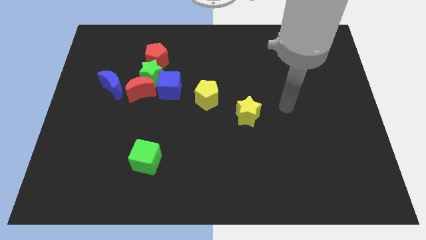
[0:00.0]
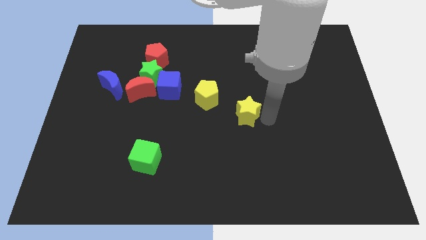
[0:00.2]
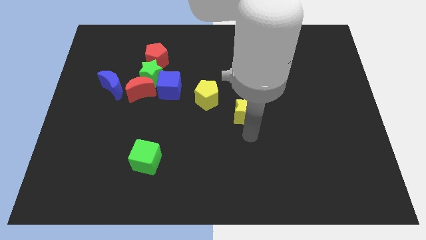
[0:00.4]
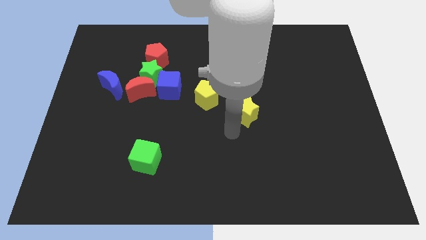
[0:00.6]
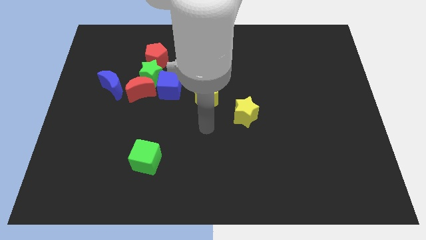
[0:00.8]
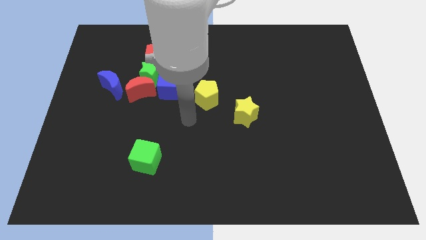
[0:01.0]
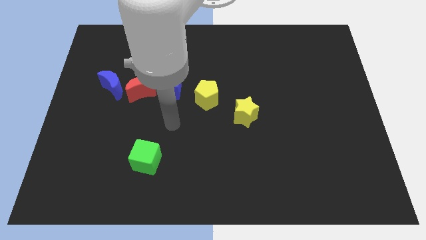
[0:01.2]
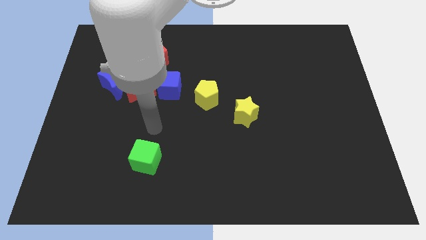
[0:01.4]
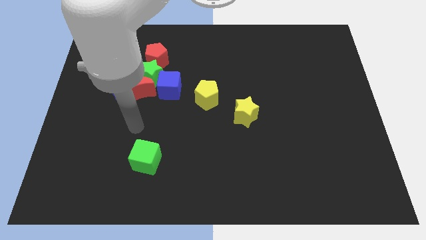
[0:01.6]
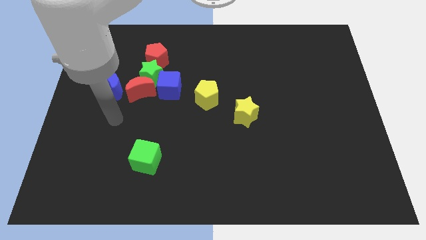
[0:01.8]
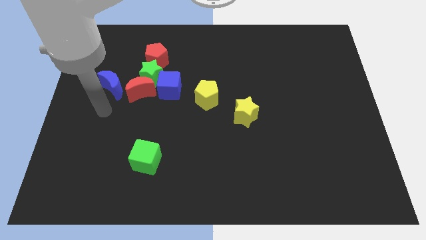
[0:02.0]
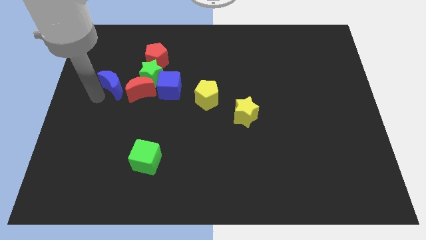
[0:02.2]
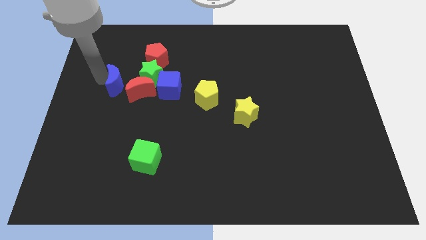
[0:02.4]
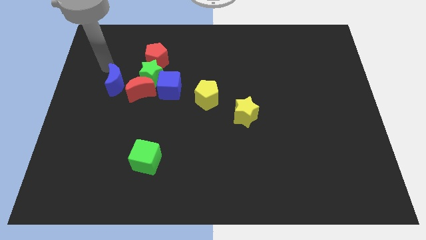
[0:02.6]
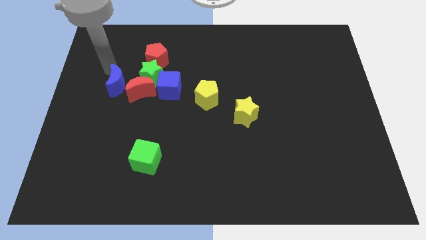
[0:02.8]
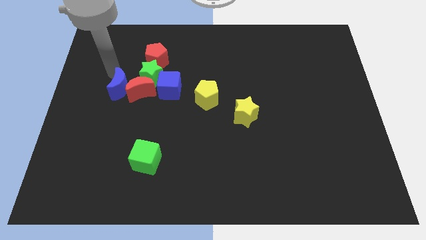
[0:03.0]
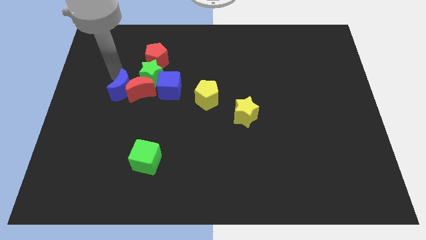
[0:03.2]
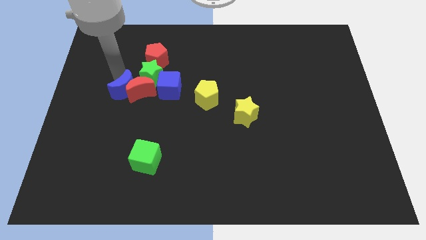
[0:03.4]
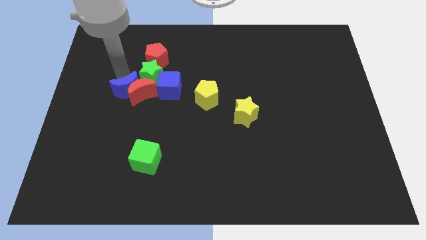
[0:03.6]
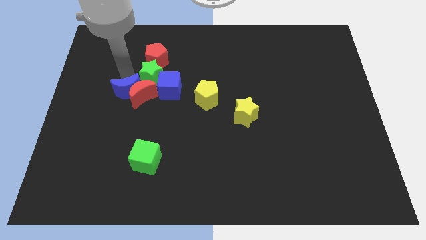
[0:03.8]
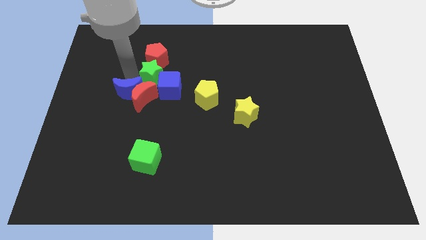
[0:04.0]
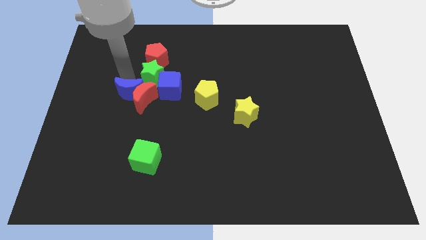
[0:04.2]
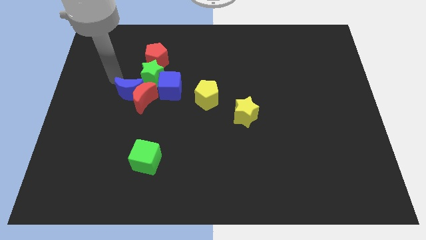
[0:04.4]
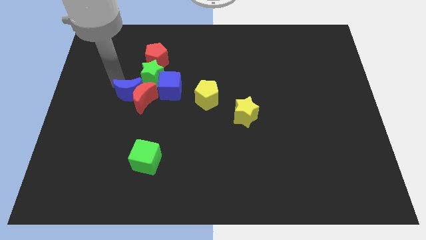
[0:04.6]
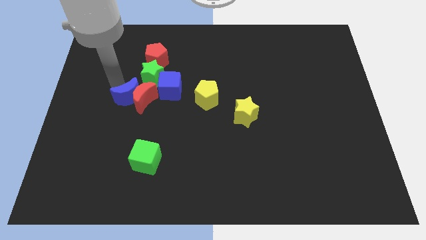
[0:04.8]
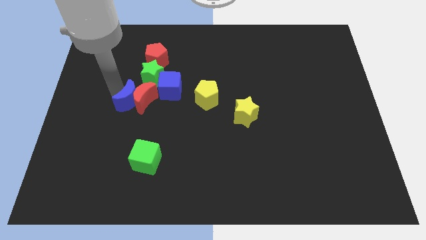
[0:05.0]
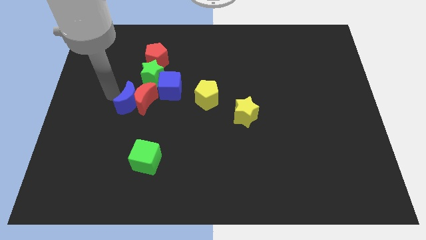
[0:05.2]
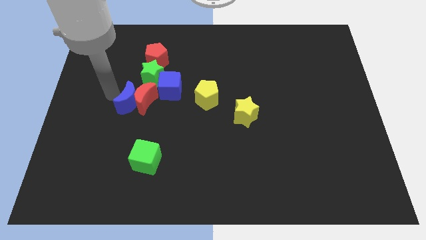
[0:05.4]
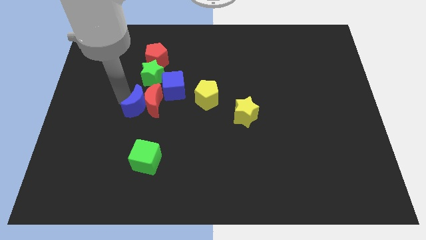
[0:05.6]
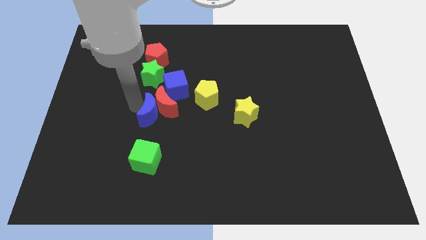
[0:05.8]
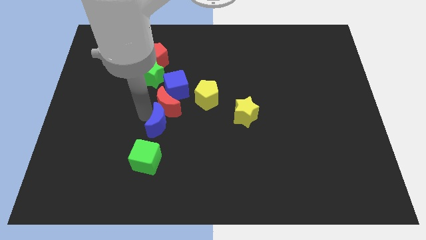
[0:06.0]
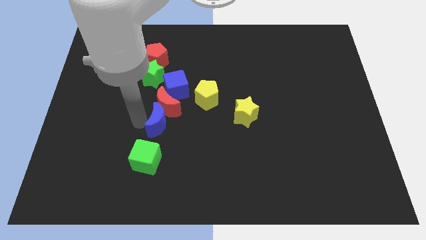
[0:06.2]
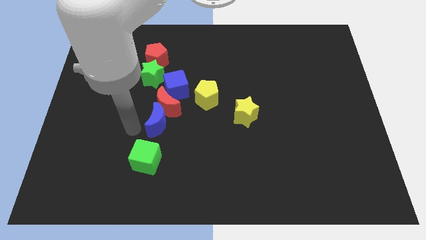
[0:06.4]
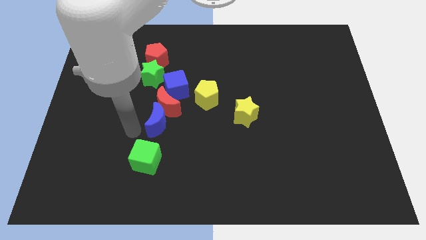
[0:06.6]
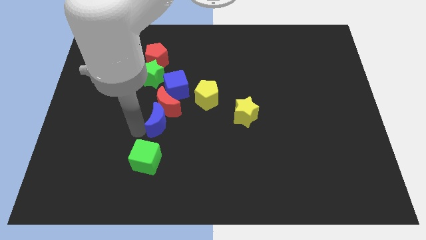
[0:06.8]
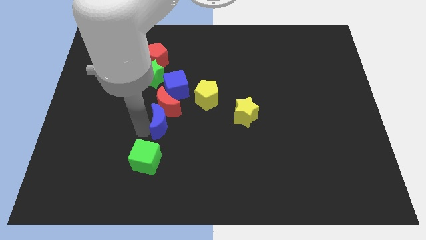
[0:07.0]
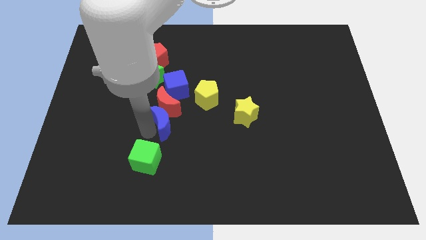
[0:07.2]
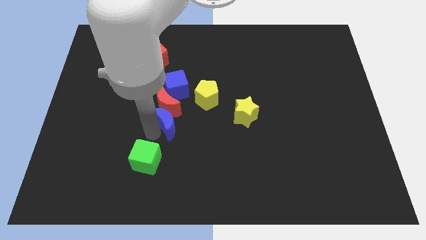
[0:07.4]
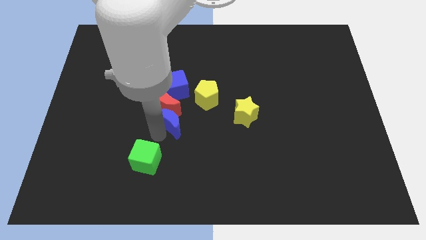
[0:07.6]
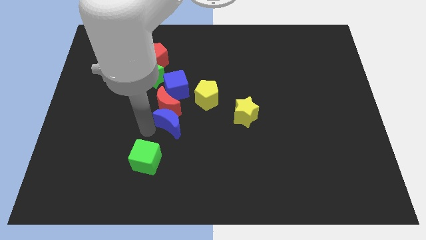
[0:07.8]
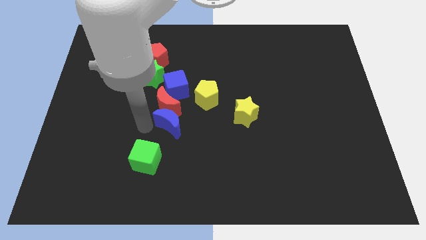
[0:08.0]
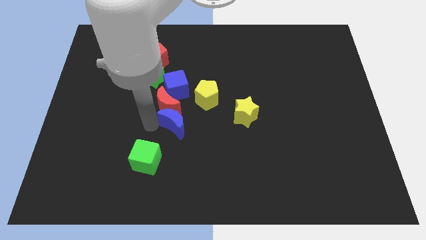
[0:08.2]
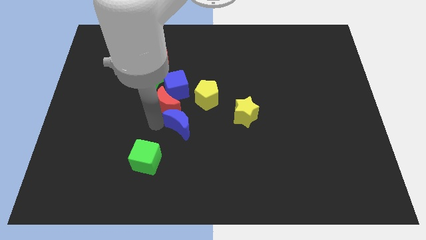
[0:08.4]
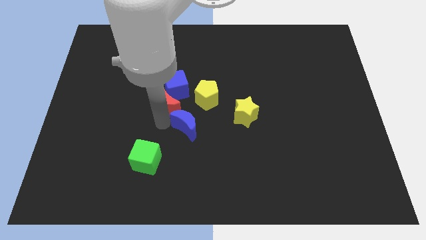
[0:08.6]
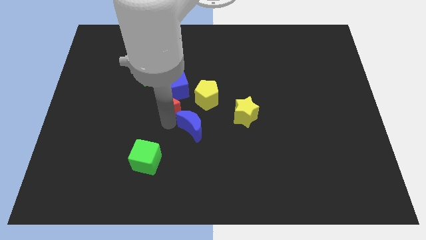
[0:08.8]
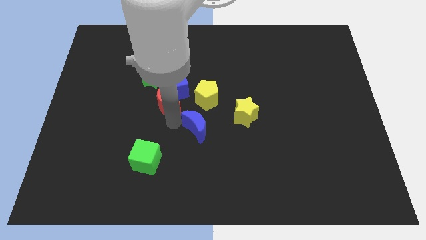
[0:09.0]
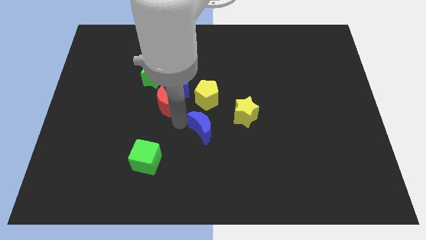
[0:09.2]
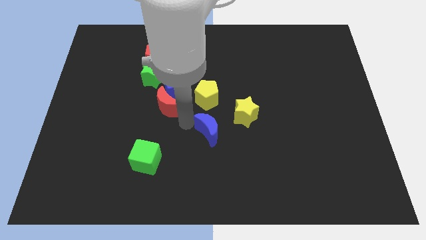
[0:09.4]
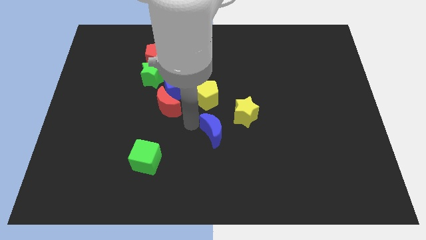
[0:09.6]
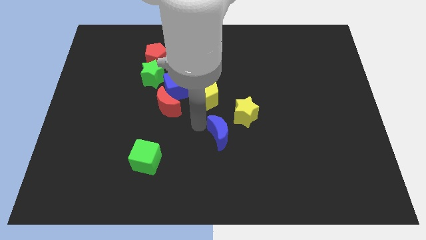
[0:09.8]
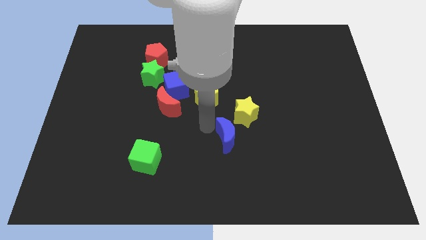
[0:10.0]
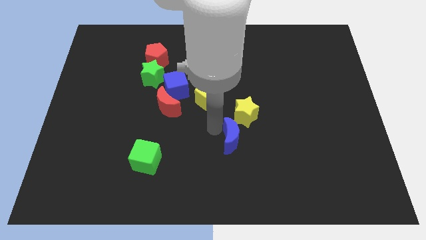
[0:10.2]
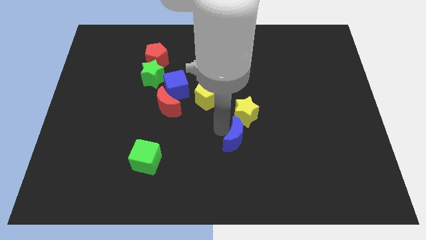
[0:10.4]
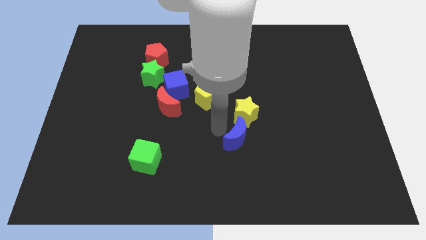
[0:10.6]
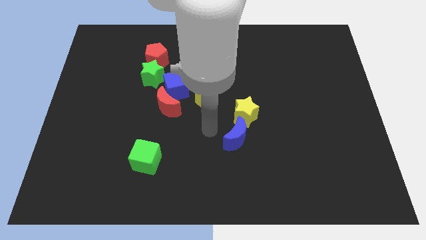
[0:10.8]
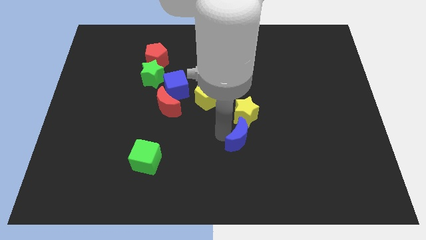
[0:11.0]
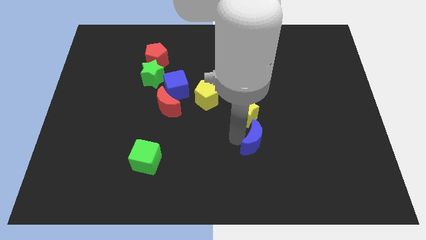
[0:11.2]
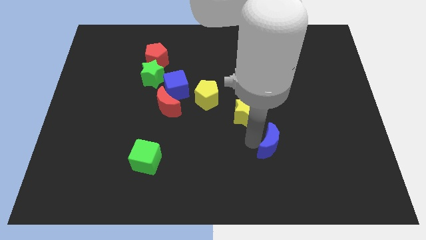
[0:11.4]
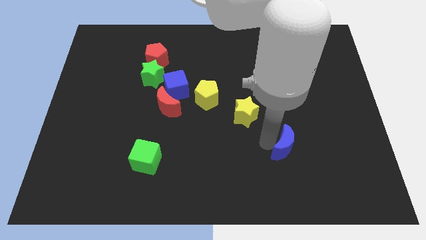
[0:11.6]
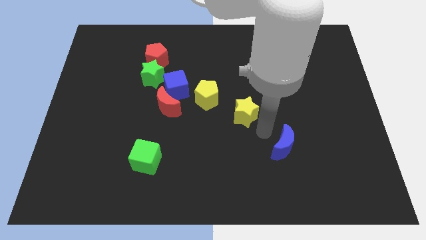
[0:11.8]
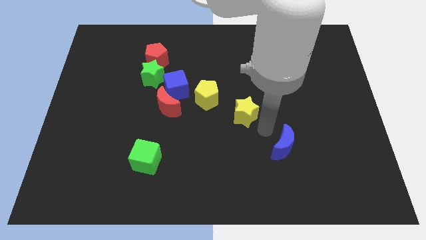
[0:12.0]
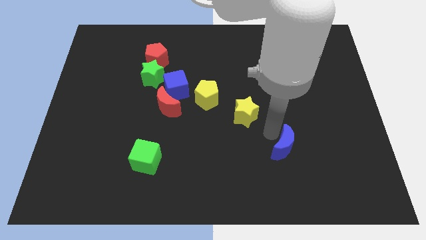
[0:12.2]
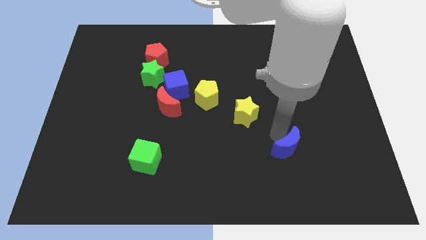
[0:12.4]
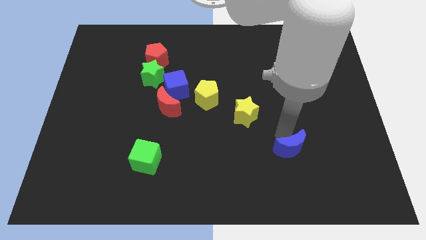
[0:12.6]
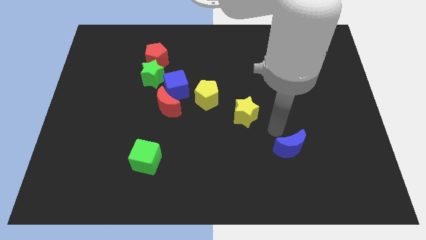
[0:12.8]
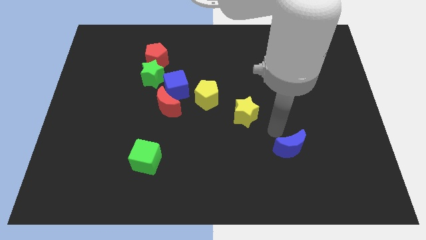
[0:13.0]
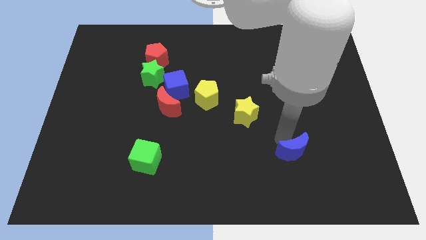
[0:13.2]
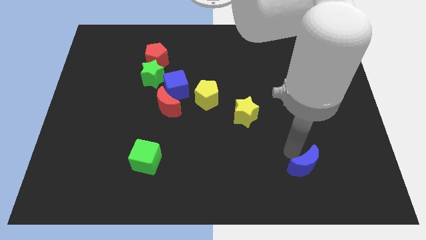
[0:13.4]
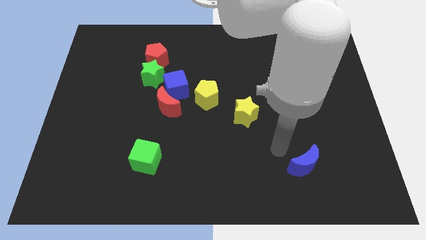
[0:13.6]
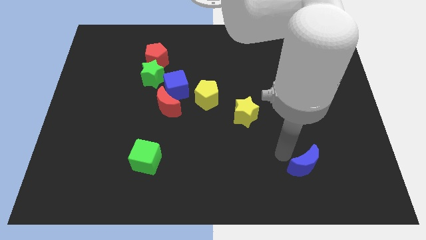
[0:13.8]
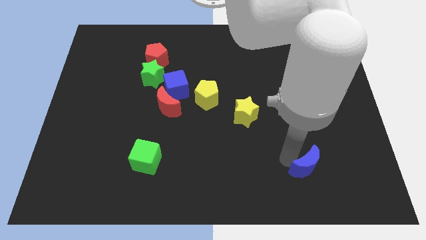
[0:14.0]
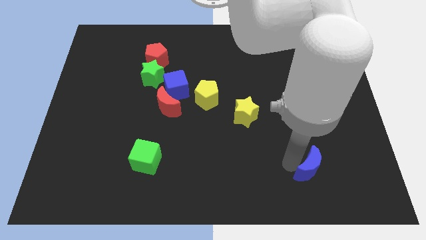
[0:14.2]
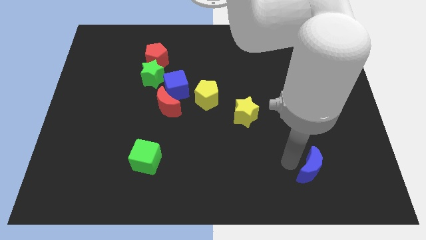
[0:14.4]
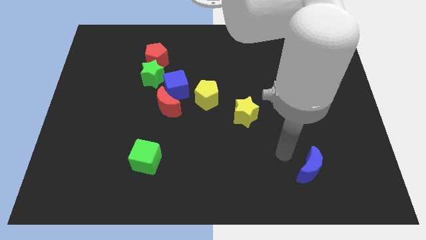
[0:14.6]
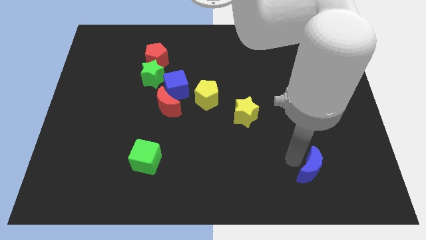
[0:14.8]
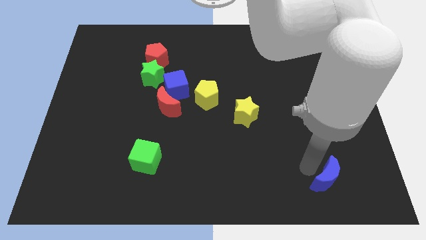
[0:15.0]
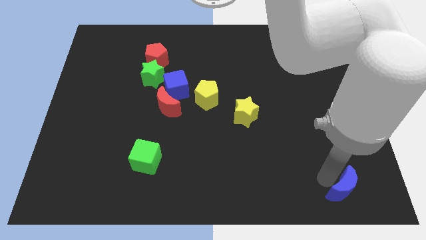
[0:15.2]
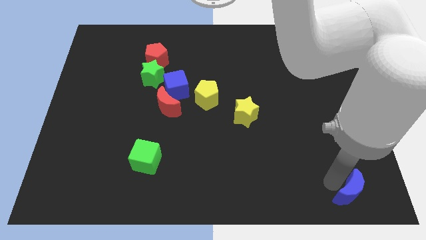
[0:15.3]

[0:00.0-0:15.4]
put the blue moon to the lower right corner
